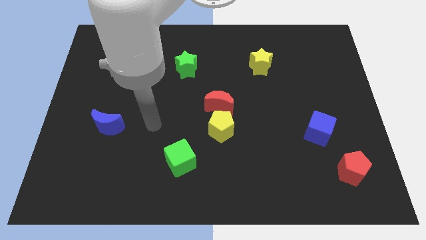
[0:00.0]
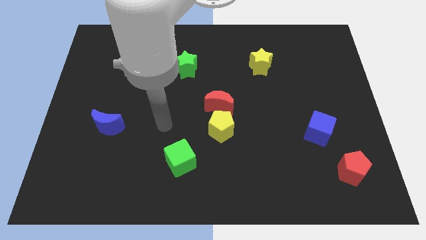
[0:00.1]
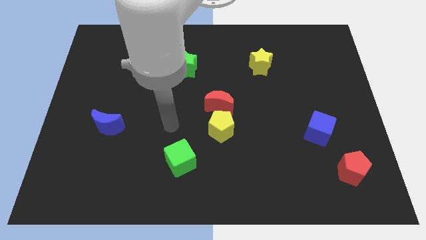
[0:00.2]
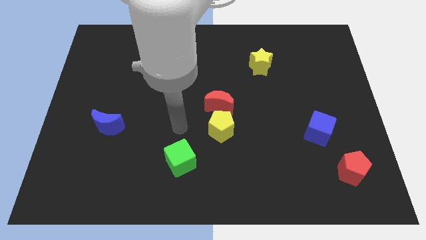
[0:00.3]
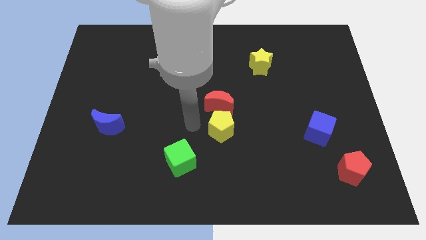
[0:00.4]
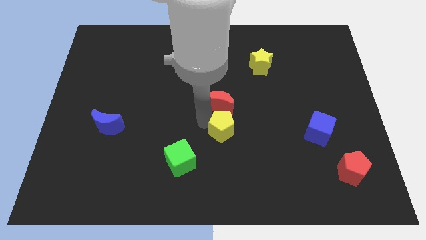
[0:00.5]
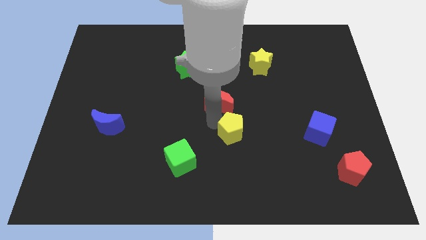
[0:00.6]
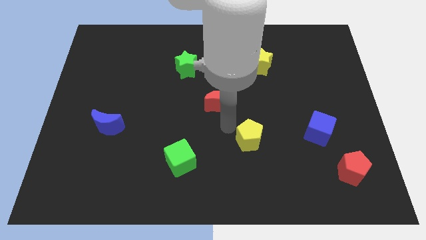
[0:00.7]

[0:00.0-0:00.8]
move the red moon away from the yellow pentagon

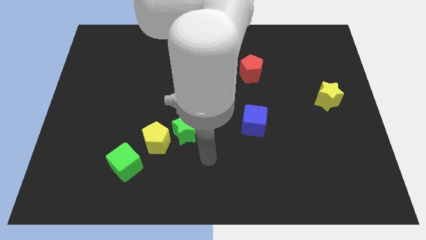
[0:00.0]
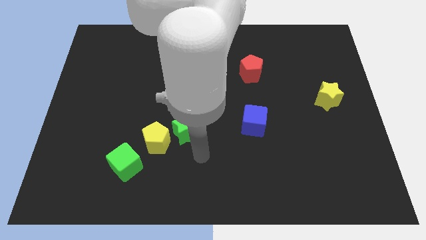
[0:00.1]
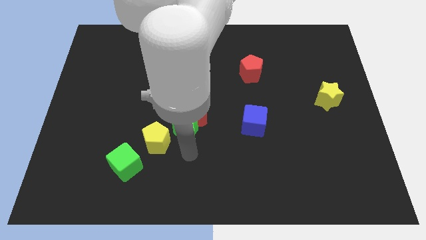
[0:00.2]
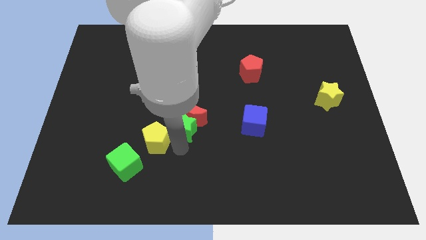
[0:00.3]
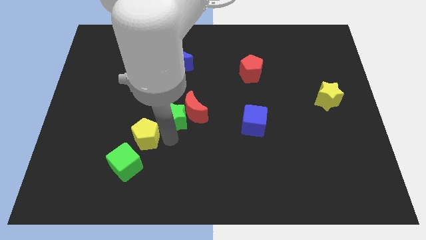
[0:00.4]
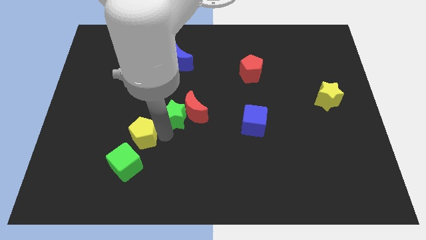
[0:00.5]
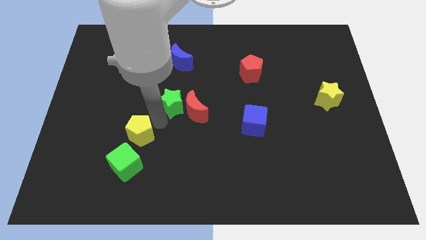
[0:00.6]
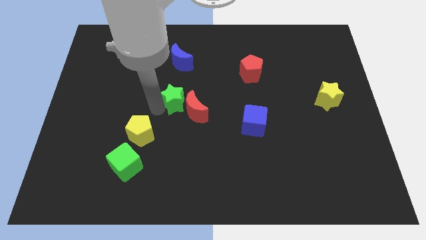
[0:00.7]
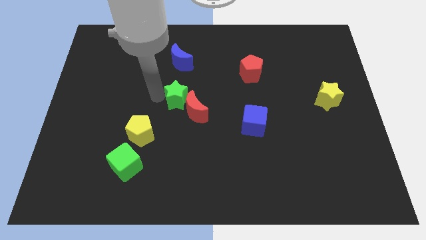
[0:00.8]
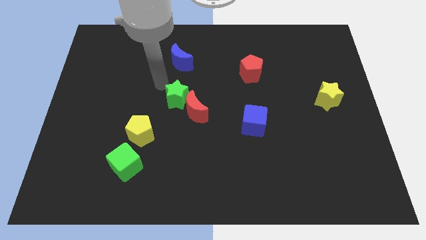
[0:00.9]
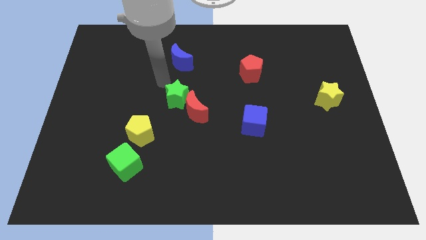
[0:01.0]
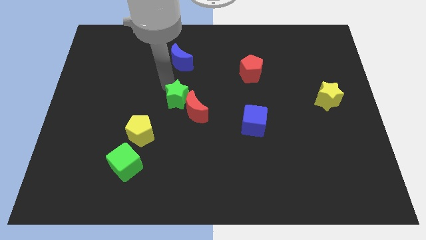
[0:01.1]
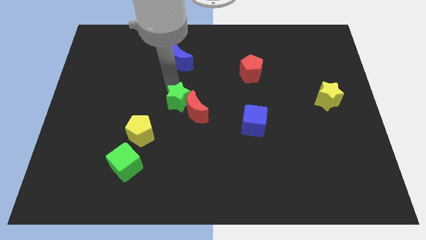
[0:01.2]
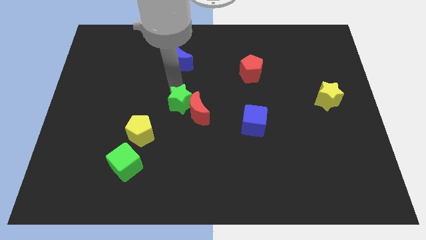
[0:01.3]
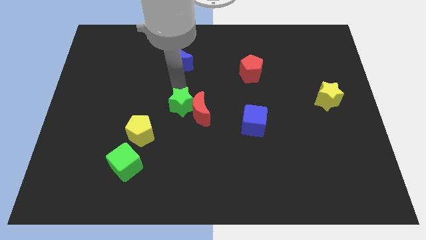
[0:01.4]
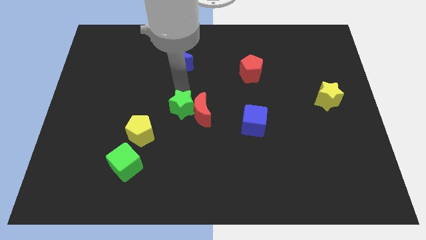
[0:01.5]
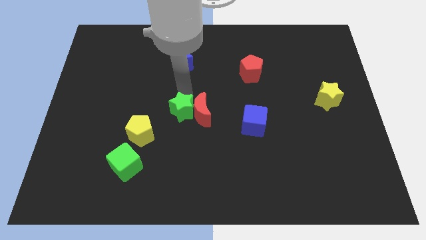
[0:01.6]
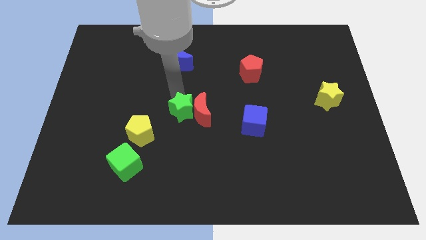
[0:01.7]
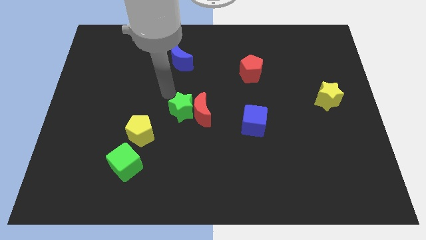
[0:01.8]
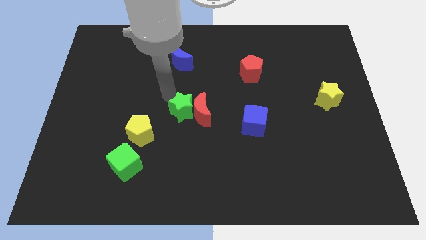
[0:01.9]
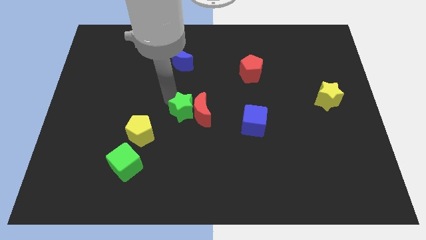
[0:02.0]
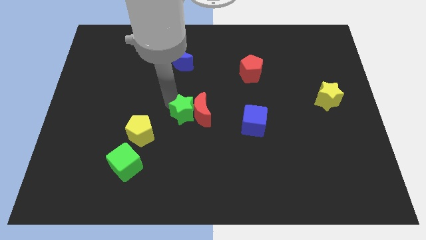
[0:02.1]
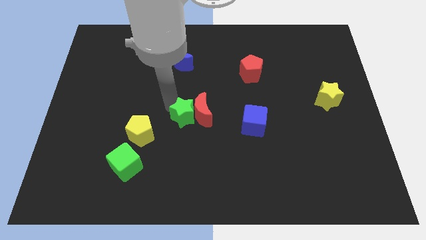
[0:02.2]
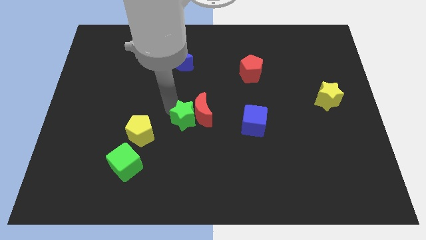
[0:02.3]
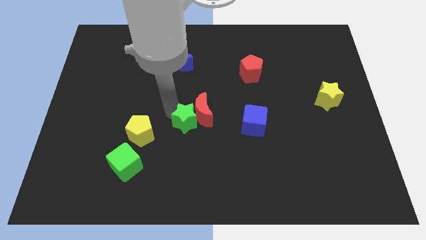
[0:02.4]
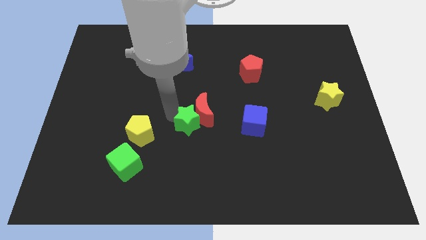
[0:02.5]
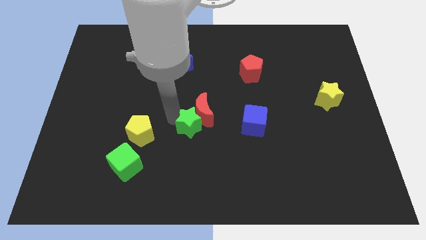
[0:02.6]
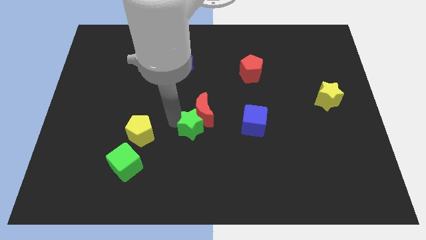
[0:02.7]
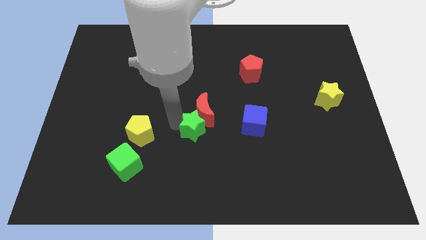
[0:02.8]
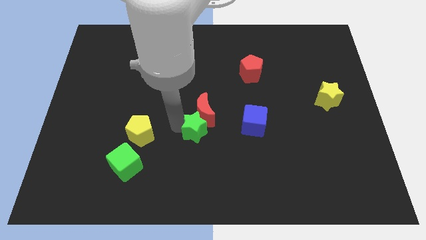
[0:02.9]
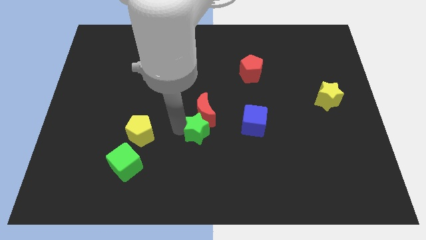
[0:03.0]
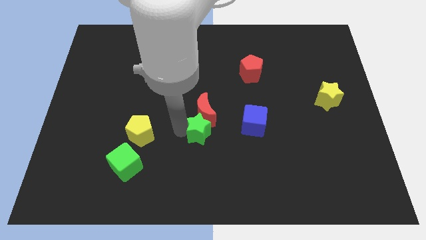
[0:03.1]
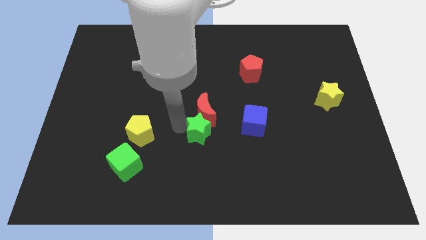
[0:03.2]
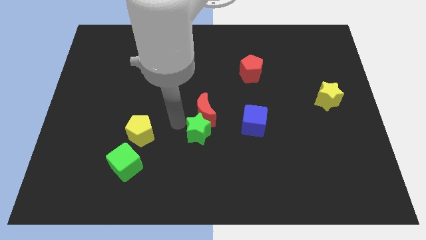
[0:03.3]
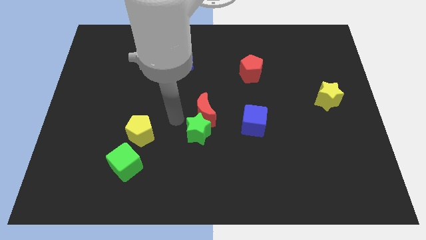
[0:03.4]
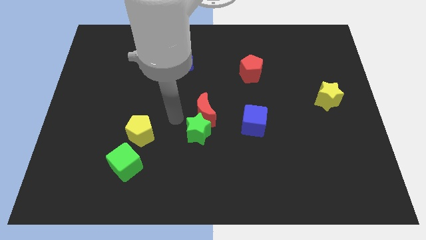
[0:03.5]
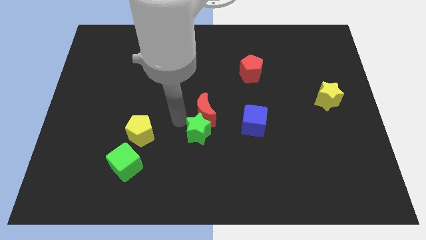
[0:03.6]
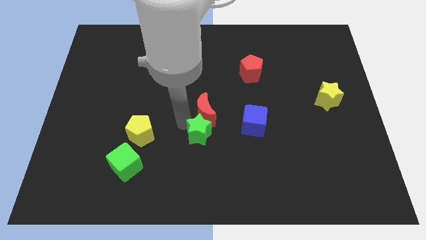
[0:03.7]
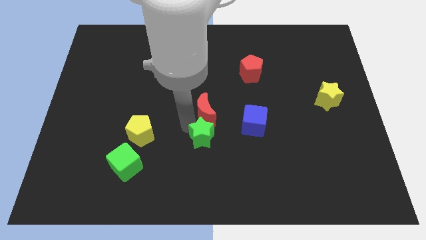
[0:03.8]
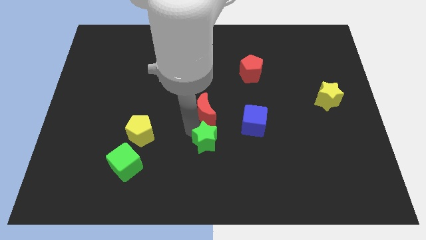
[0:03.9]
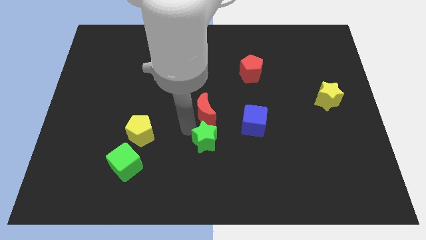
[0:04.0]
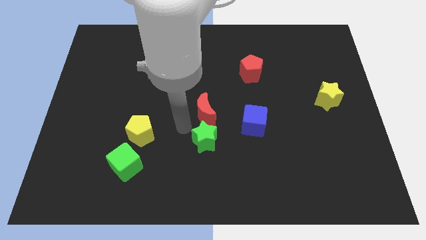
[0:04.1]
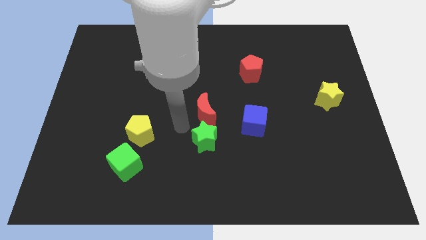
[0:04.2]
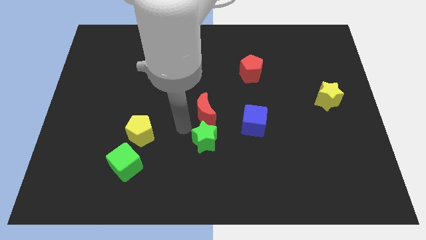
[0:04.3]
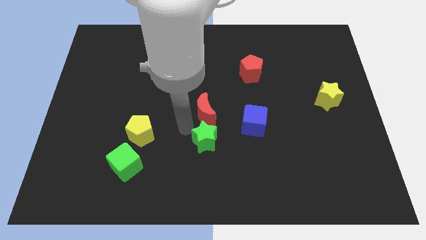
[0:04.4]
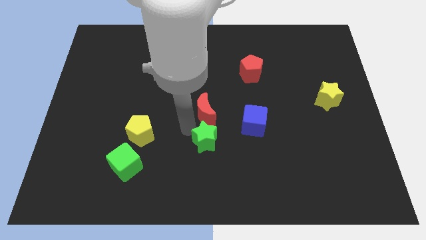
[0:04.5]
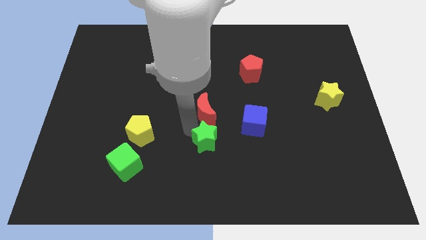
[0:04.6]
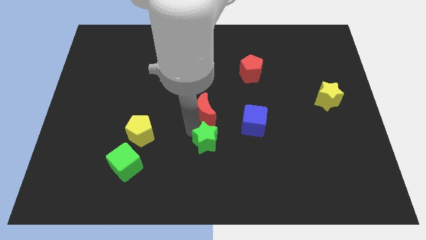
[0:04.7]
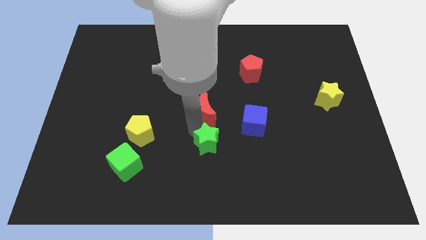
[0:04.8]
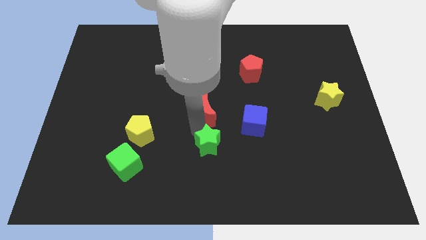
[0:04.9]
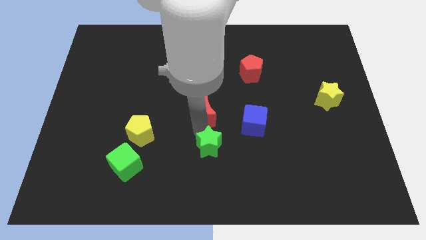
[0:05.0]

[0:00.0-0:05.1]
separate the green star from the red moon and yellow pentagon

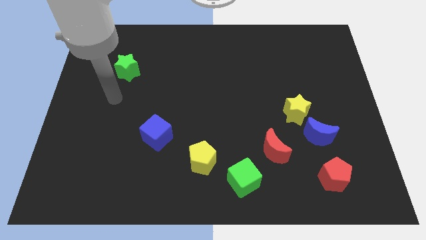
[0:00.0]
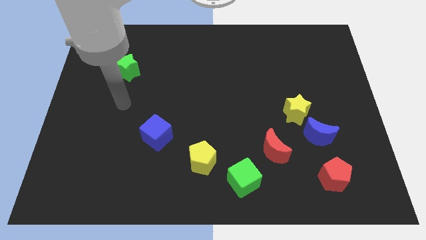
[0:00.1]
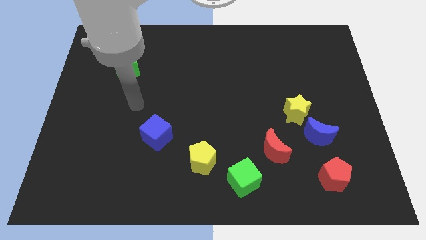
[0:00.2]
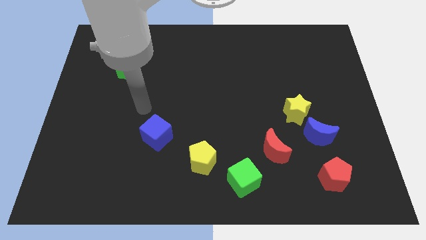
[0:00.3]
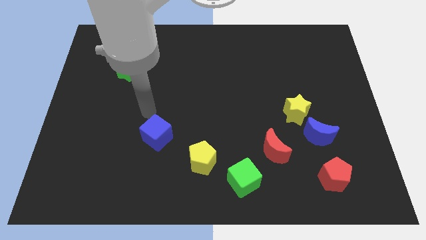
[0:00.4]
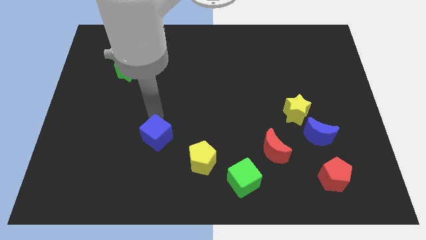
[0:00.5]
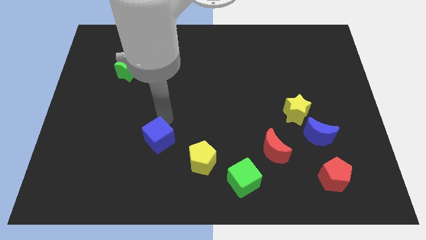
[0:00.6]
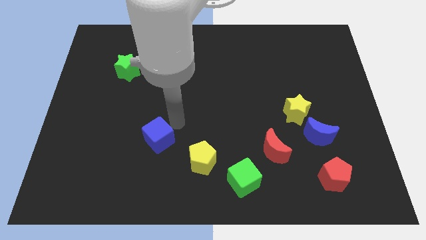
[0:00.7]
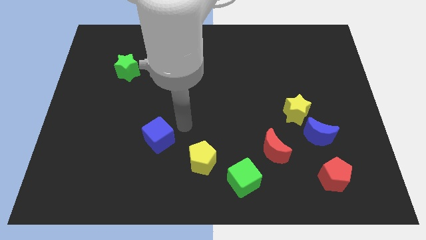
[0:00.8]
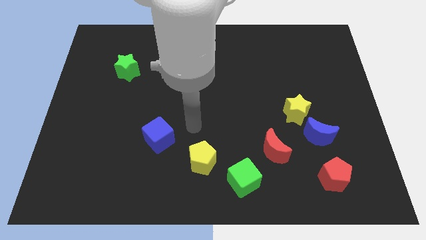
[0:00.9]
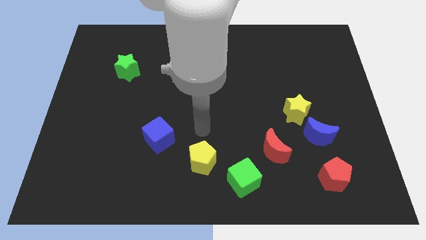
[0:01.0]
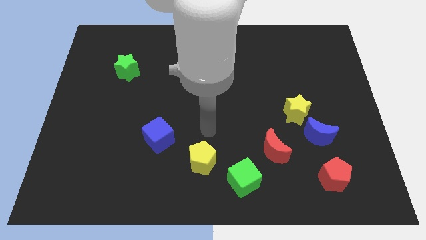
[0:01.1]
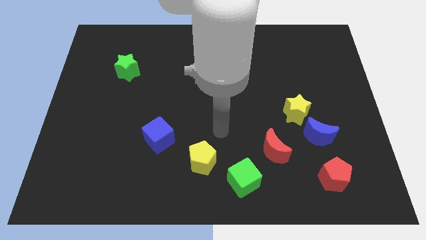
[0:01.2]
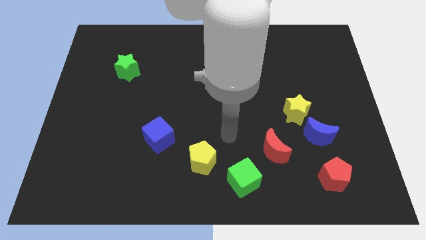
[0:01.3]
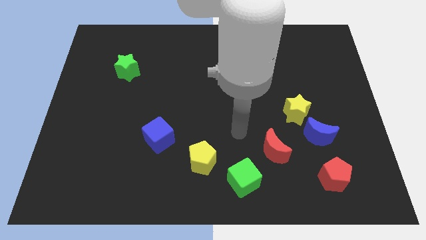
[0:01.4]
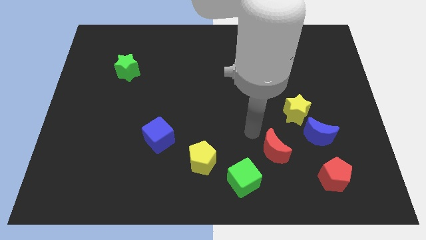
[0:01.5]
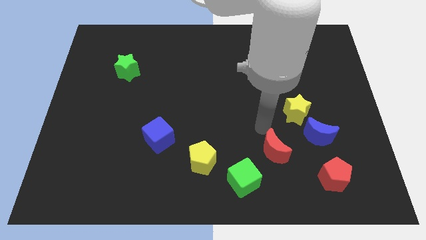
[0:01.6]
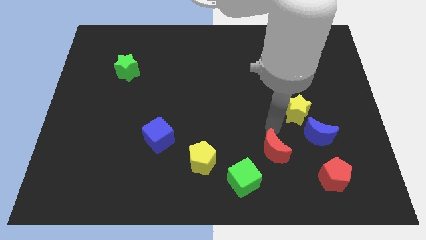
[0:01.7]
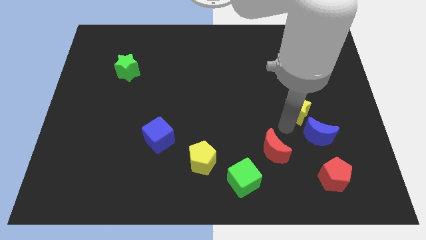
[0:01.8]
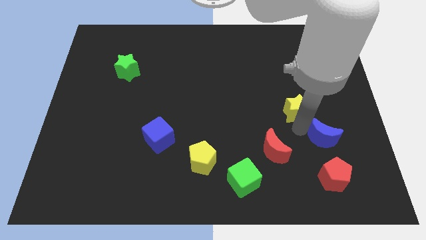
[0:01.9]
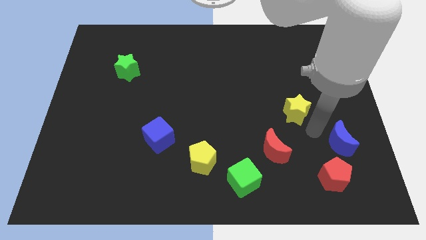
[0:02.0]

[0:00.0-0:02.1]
pull the yellow star apart from the blue moon

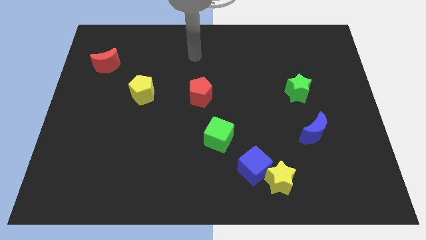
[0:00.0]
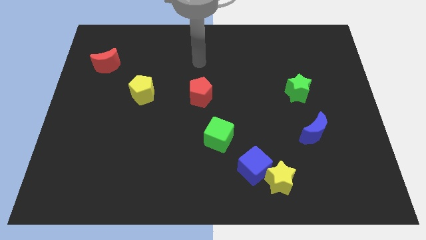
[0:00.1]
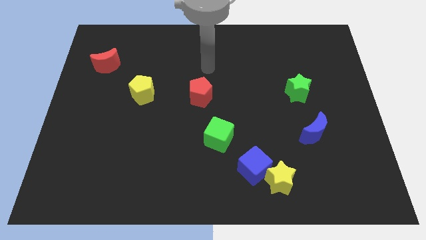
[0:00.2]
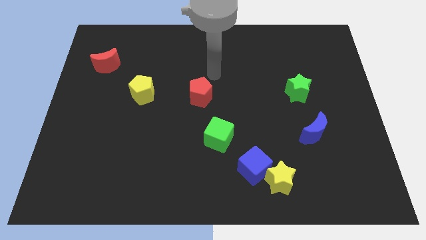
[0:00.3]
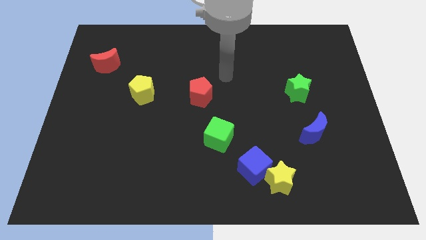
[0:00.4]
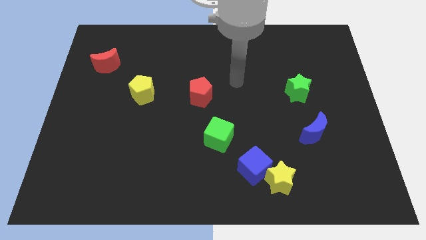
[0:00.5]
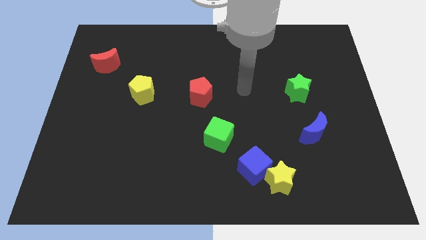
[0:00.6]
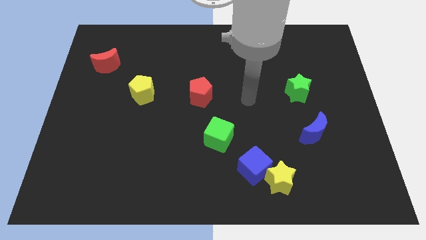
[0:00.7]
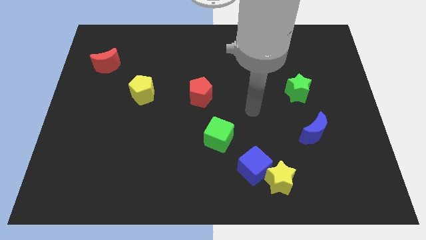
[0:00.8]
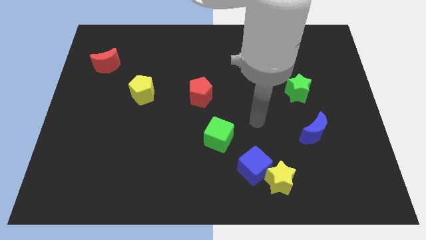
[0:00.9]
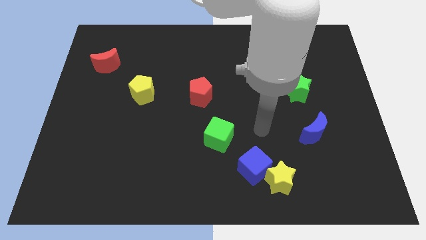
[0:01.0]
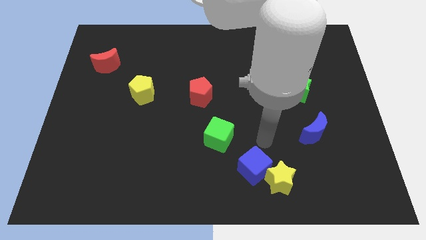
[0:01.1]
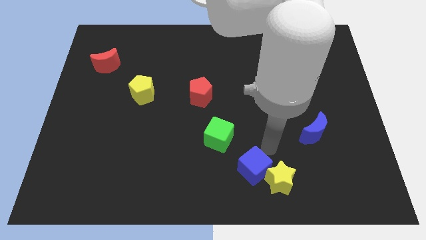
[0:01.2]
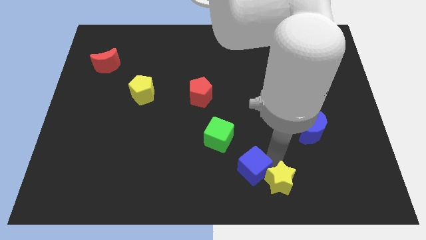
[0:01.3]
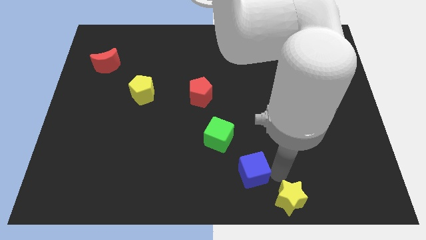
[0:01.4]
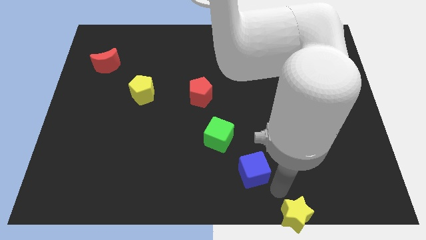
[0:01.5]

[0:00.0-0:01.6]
move the blue cube away from the yellow star
